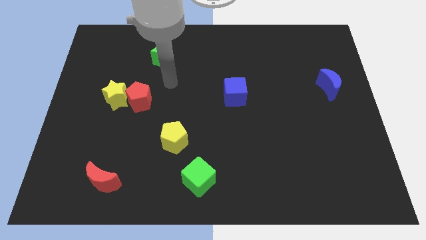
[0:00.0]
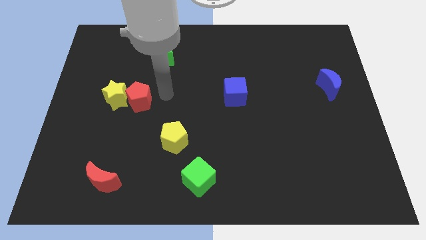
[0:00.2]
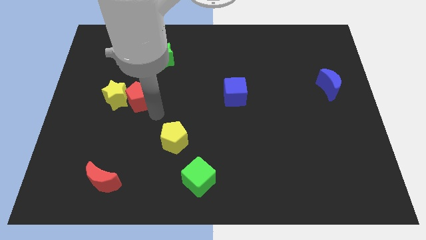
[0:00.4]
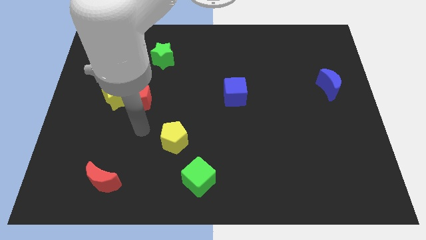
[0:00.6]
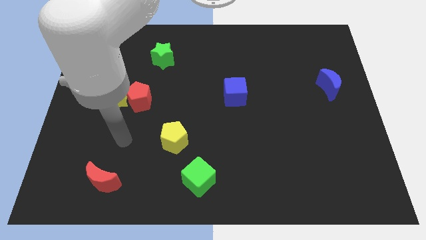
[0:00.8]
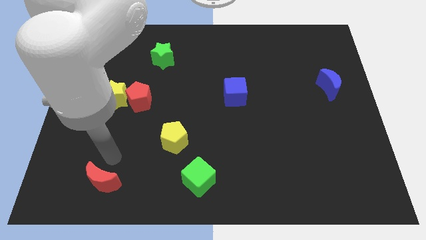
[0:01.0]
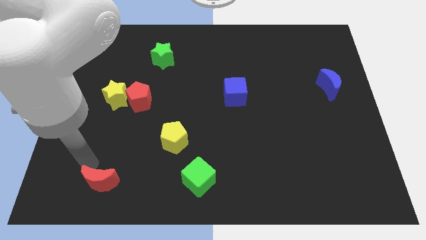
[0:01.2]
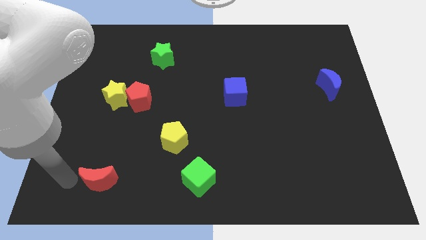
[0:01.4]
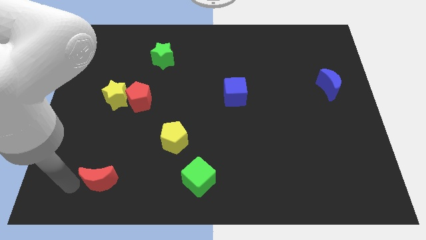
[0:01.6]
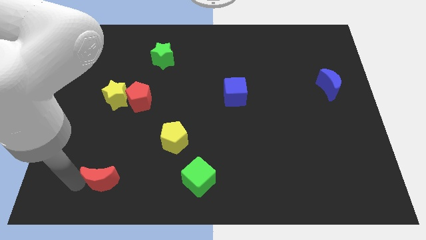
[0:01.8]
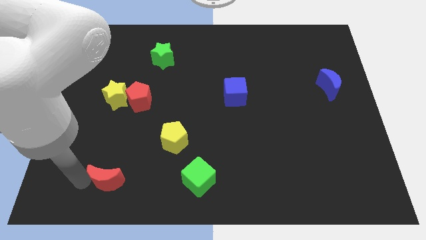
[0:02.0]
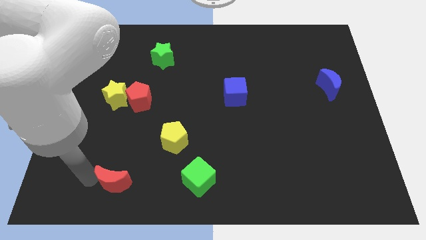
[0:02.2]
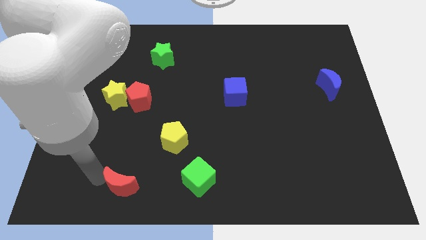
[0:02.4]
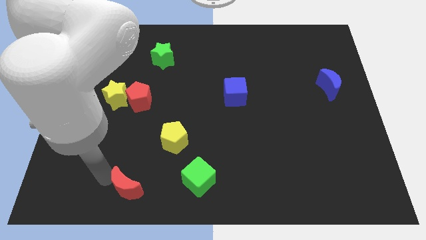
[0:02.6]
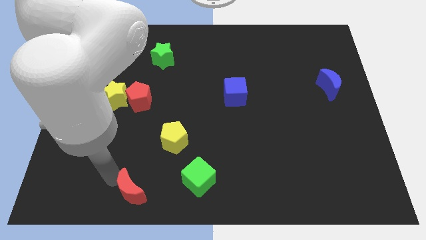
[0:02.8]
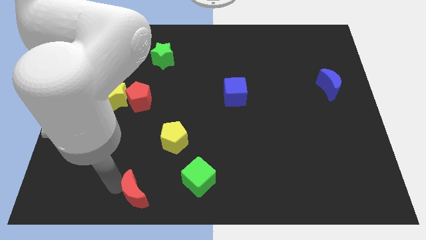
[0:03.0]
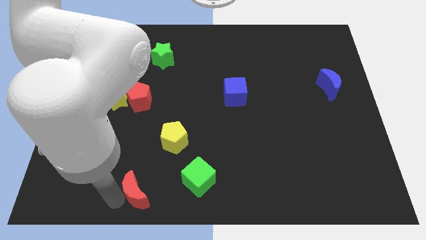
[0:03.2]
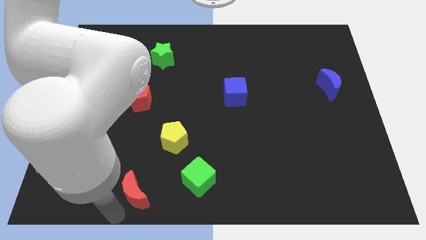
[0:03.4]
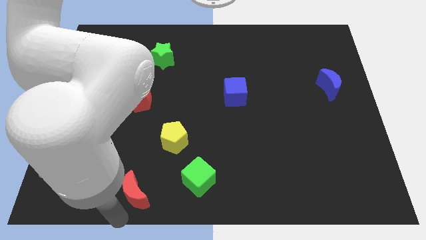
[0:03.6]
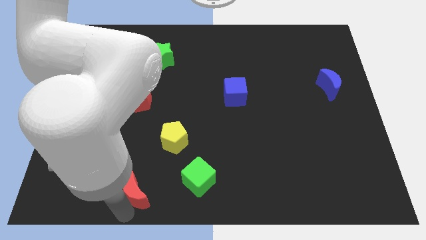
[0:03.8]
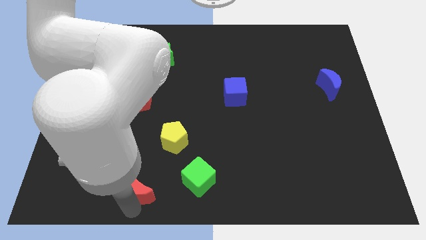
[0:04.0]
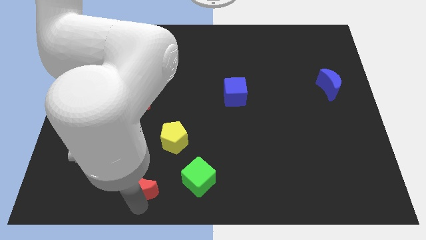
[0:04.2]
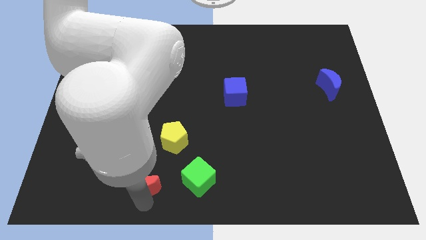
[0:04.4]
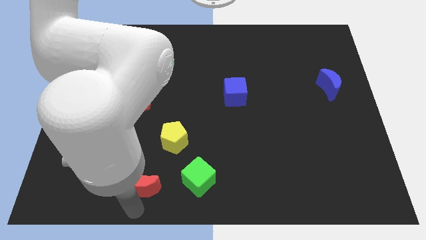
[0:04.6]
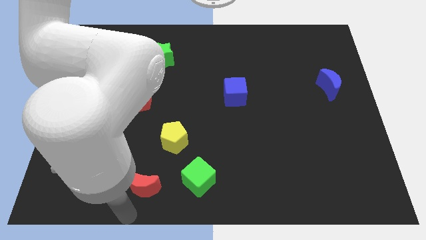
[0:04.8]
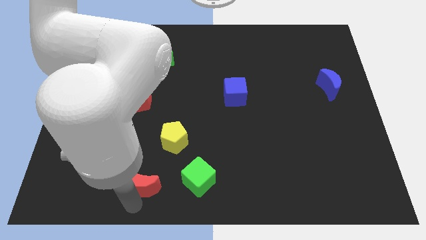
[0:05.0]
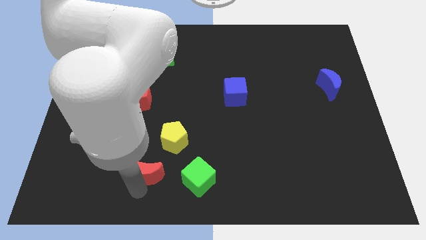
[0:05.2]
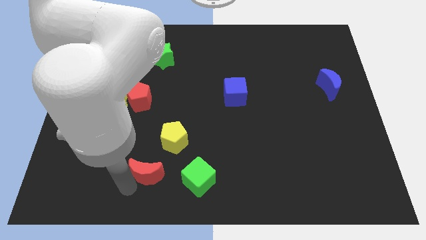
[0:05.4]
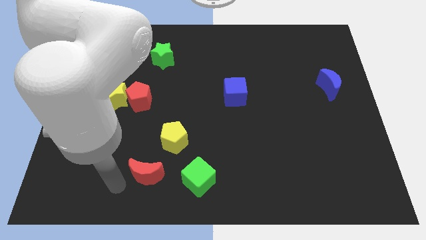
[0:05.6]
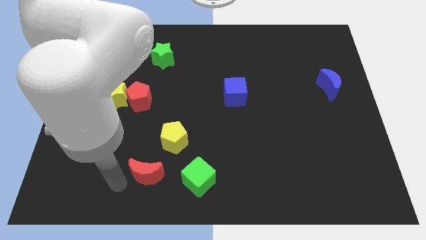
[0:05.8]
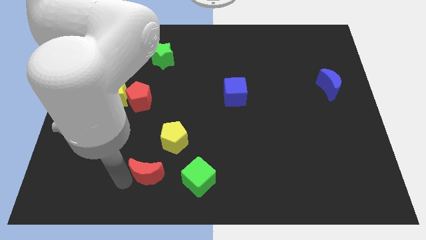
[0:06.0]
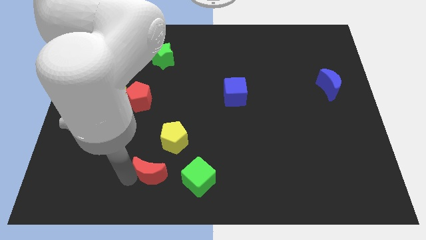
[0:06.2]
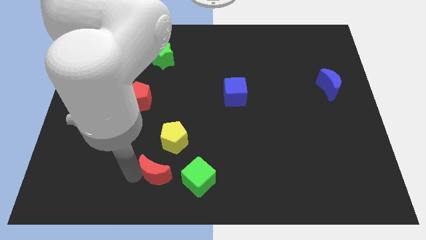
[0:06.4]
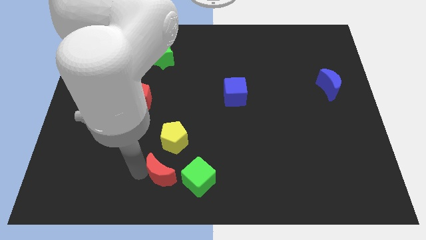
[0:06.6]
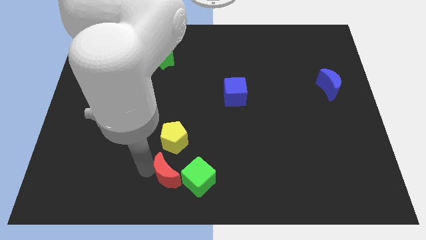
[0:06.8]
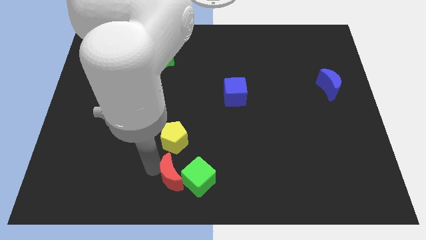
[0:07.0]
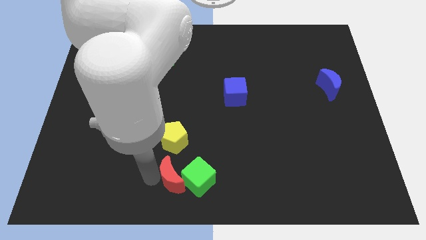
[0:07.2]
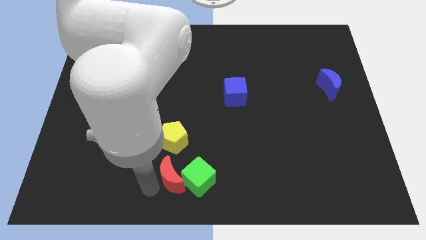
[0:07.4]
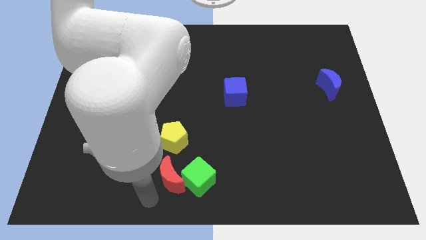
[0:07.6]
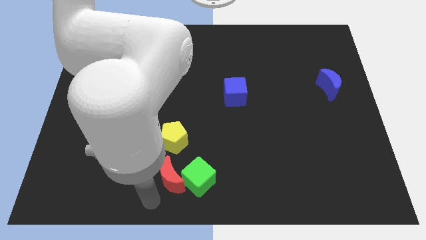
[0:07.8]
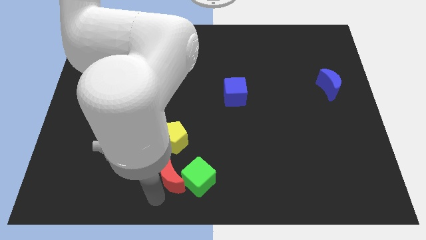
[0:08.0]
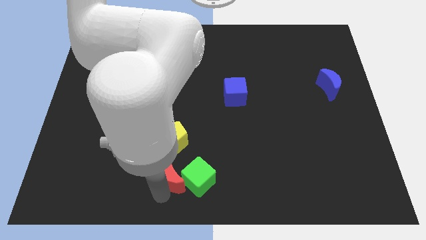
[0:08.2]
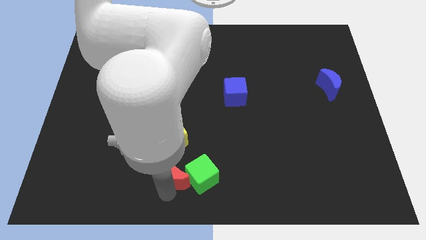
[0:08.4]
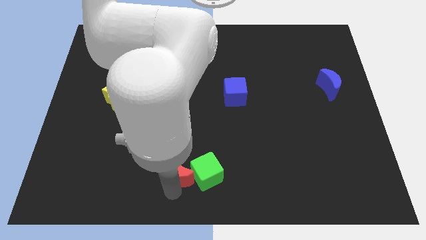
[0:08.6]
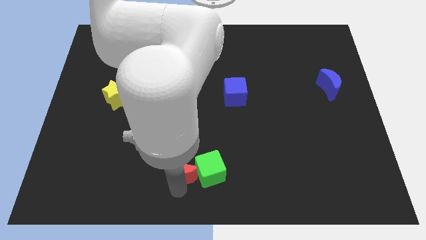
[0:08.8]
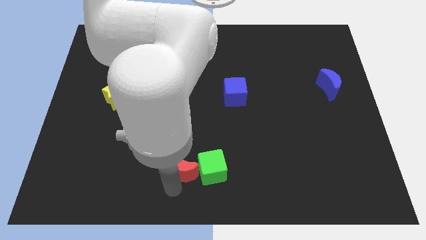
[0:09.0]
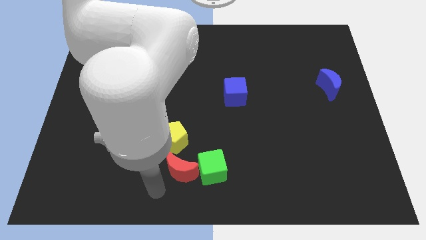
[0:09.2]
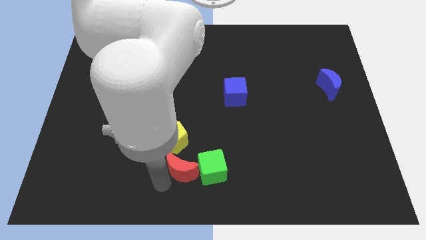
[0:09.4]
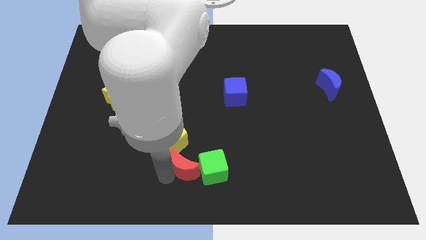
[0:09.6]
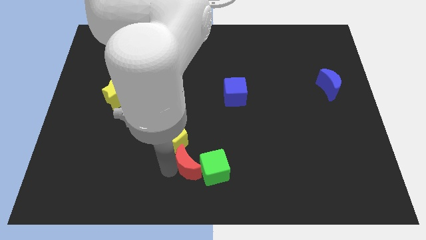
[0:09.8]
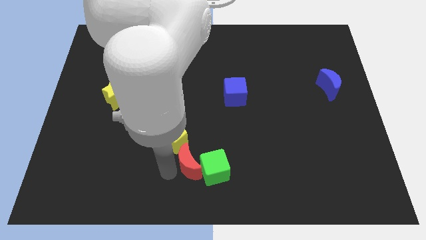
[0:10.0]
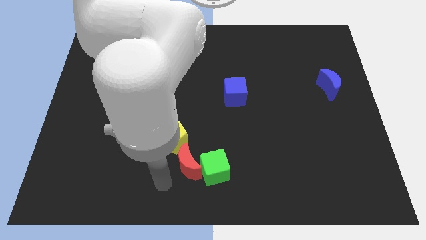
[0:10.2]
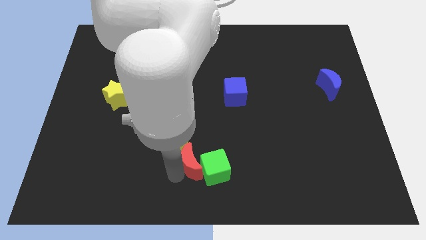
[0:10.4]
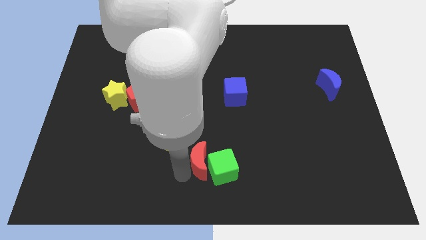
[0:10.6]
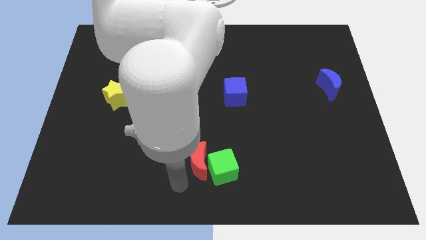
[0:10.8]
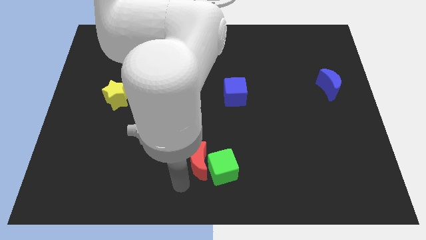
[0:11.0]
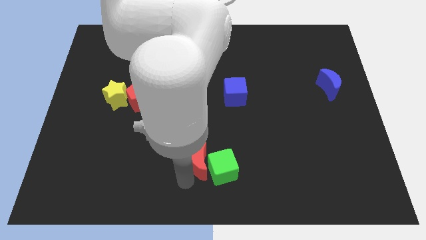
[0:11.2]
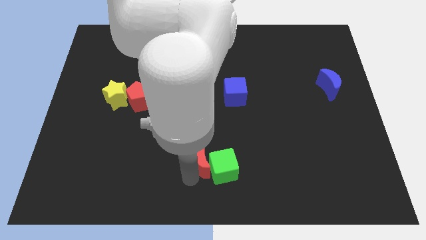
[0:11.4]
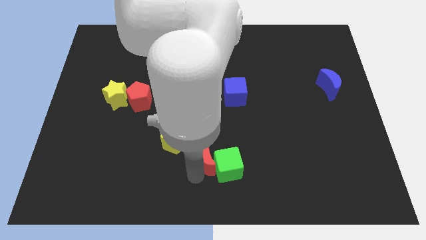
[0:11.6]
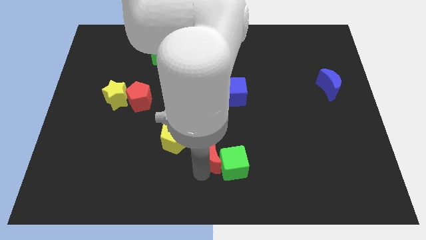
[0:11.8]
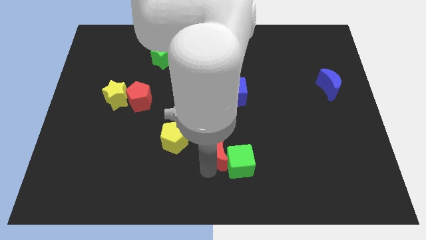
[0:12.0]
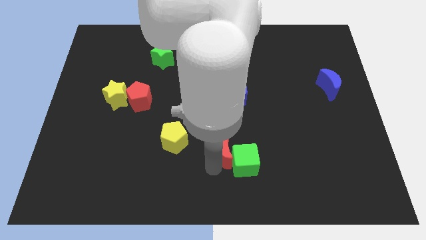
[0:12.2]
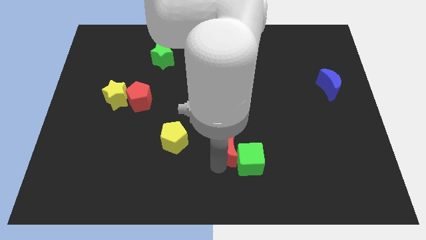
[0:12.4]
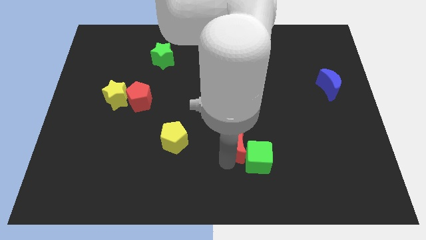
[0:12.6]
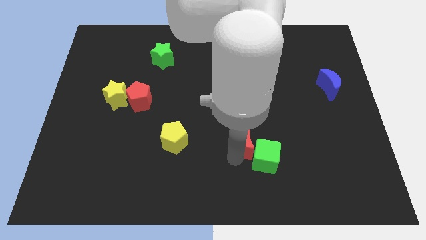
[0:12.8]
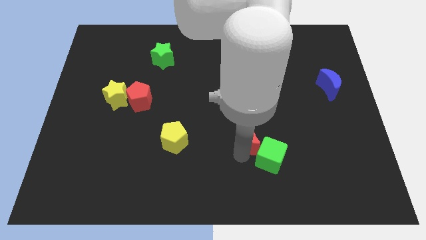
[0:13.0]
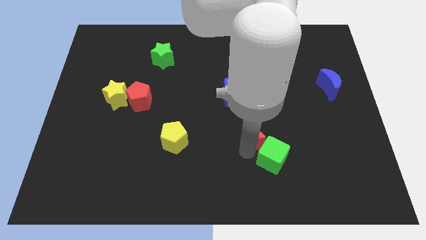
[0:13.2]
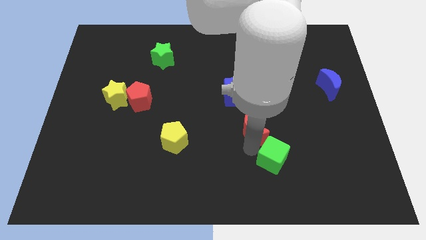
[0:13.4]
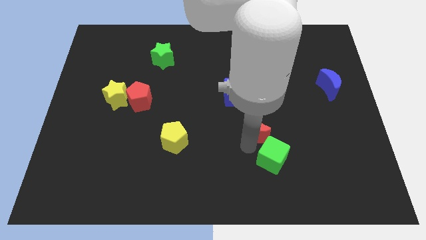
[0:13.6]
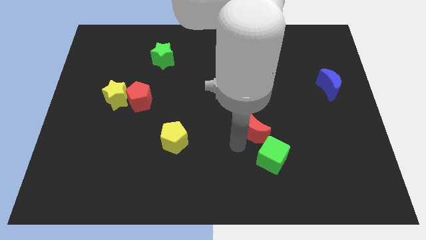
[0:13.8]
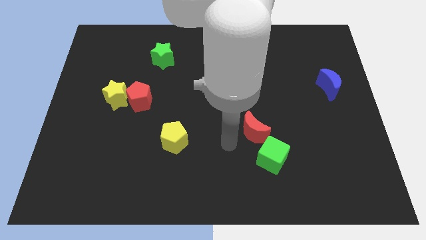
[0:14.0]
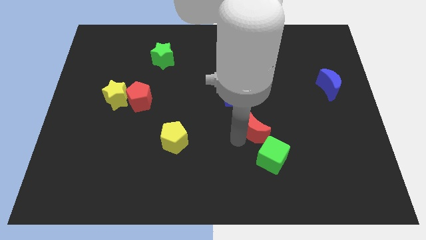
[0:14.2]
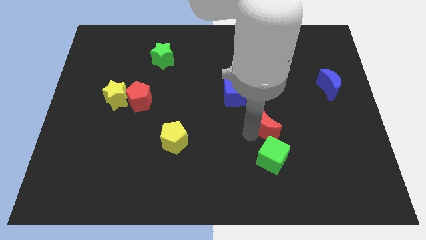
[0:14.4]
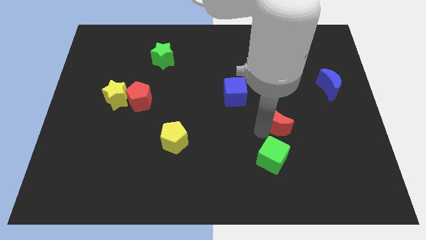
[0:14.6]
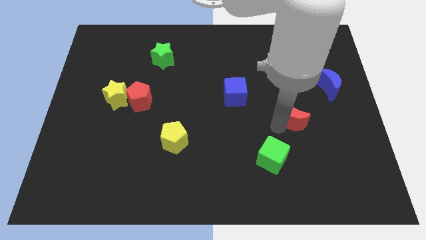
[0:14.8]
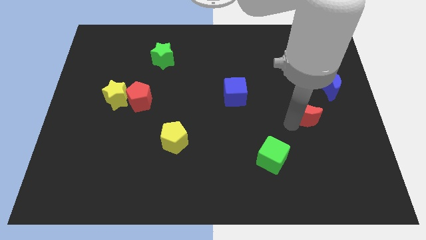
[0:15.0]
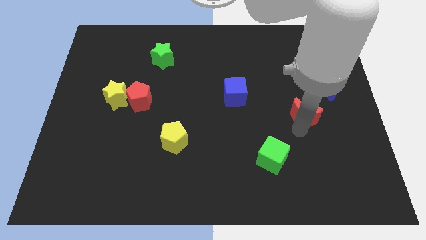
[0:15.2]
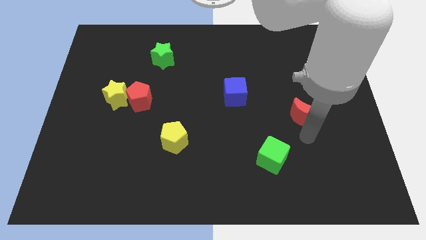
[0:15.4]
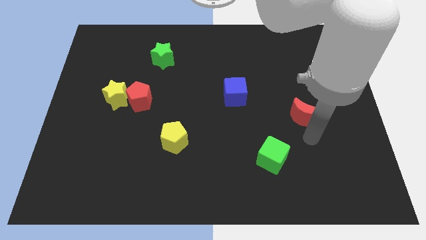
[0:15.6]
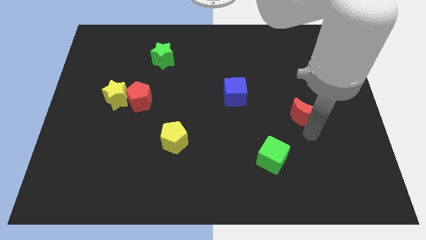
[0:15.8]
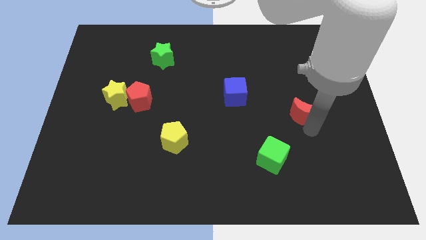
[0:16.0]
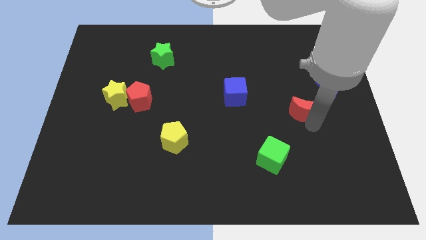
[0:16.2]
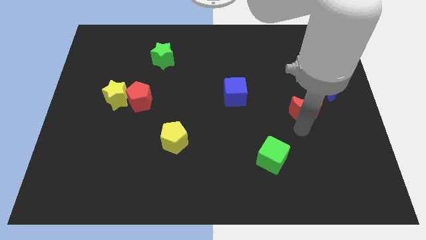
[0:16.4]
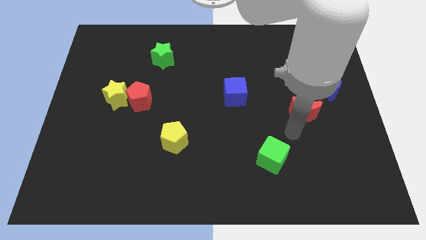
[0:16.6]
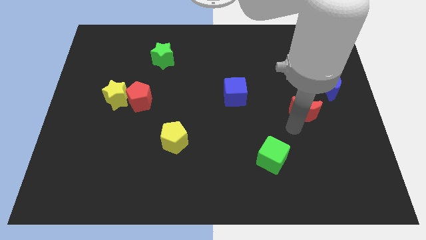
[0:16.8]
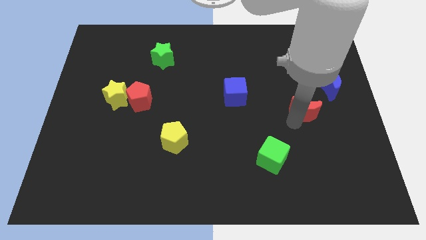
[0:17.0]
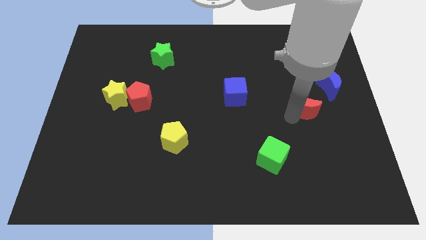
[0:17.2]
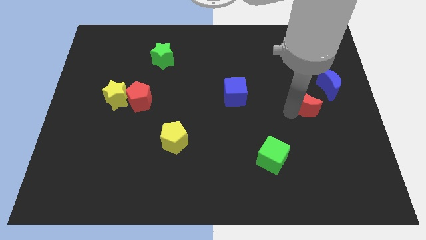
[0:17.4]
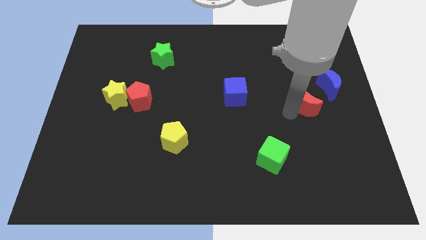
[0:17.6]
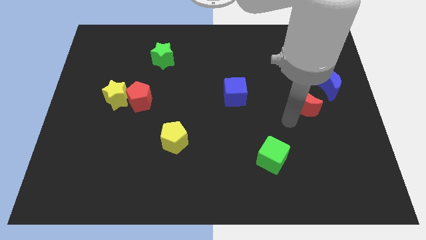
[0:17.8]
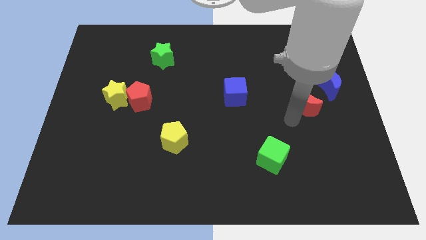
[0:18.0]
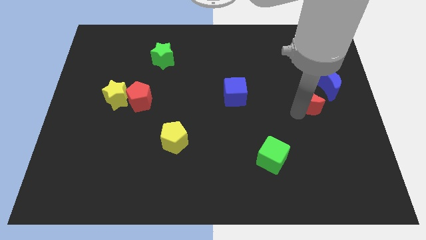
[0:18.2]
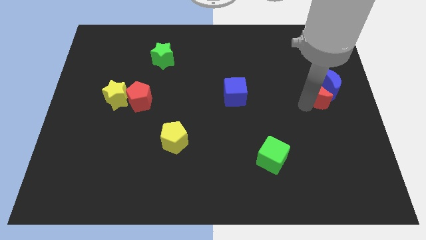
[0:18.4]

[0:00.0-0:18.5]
slide the red moon next to the blue moon
